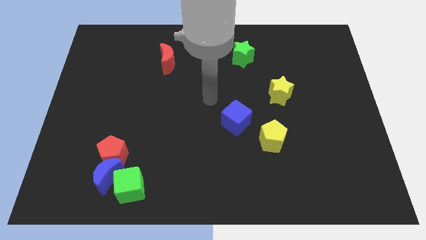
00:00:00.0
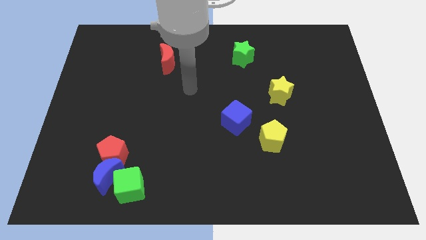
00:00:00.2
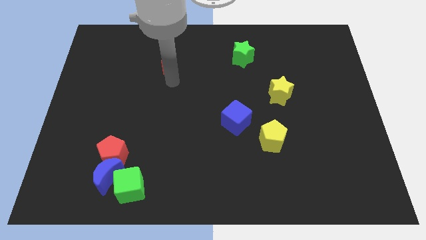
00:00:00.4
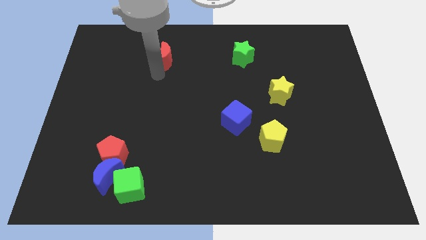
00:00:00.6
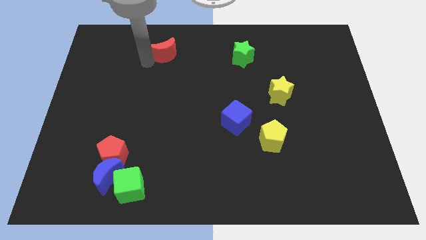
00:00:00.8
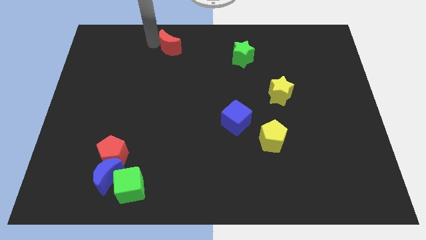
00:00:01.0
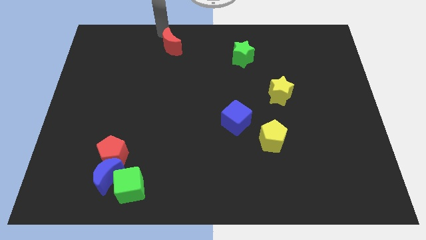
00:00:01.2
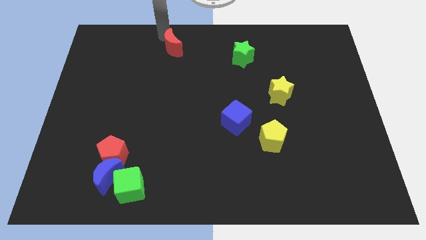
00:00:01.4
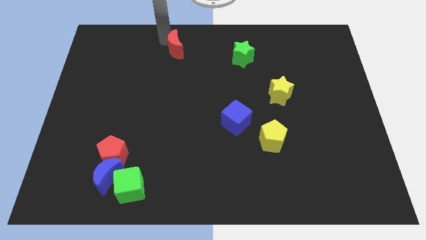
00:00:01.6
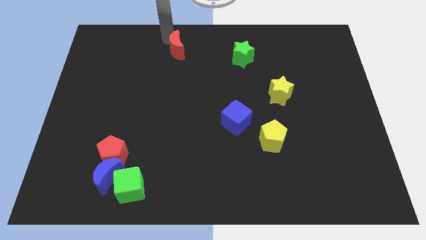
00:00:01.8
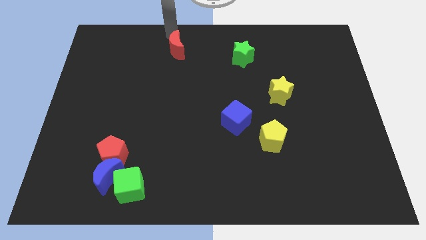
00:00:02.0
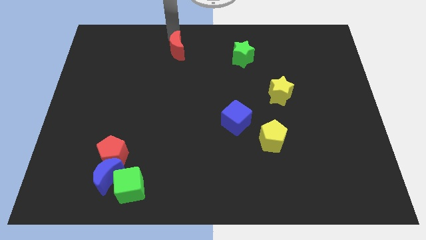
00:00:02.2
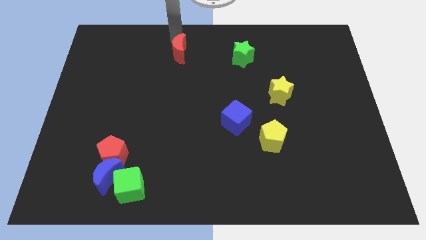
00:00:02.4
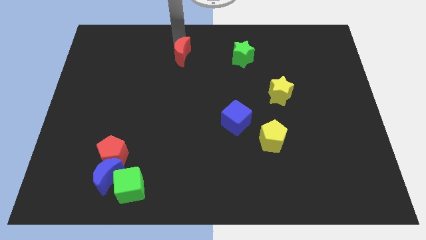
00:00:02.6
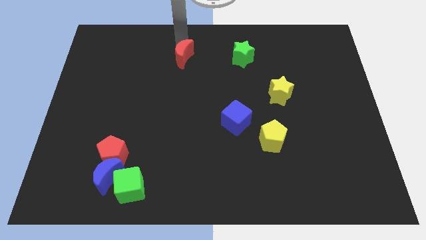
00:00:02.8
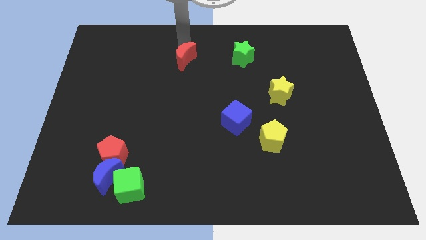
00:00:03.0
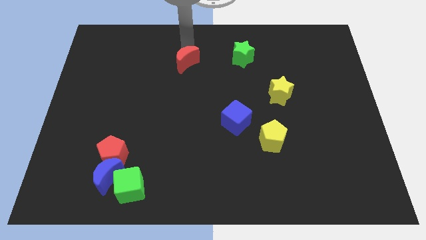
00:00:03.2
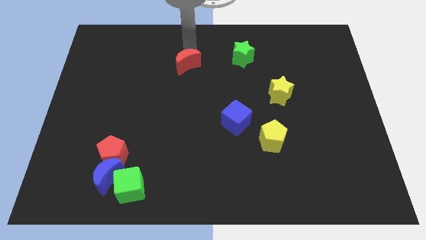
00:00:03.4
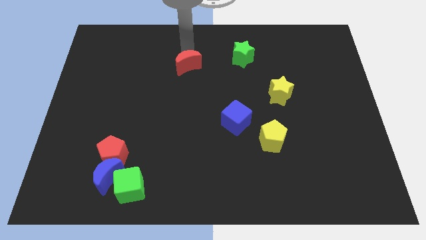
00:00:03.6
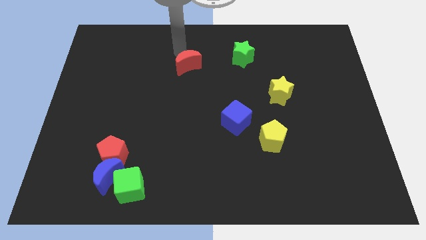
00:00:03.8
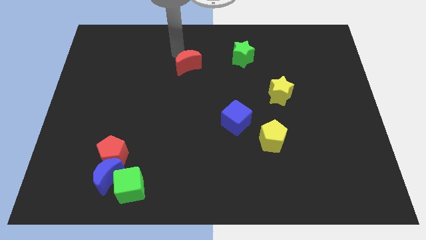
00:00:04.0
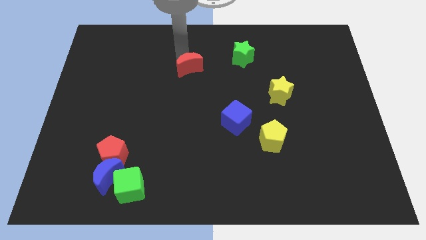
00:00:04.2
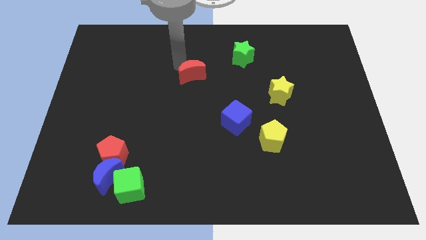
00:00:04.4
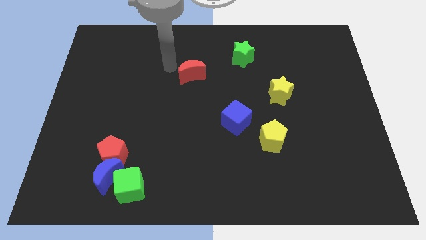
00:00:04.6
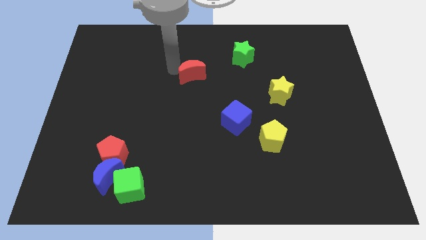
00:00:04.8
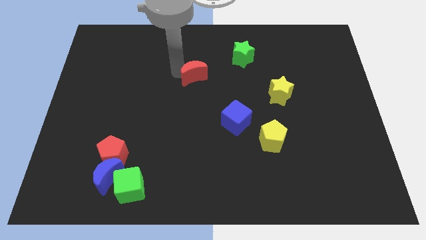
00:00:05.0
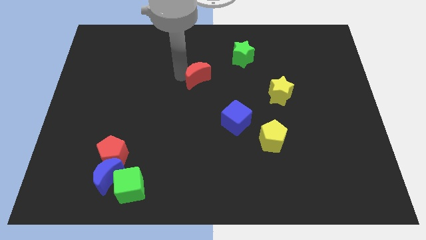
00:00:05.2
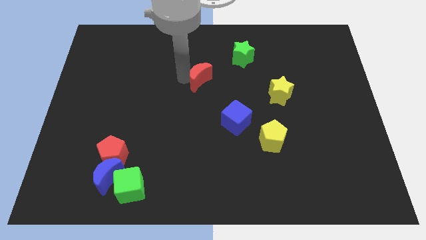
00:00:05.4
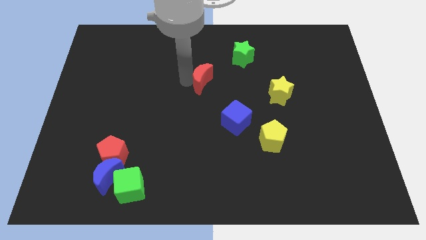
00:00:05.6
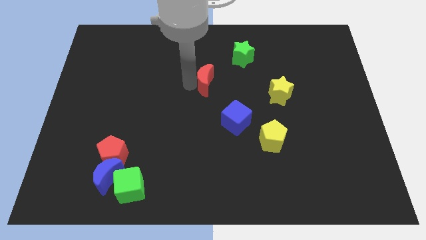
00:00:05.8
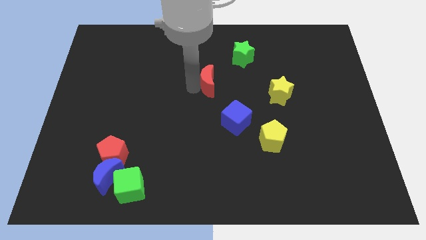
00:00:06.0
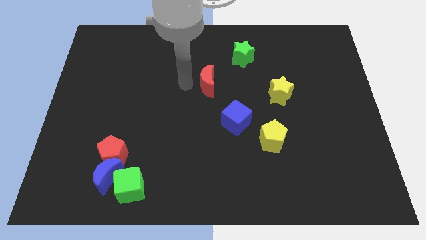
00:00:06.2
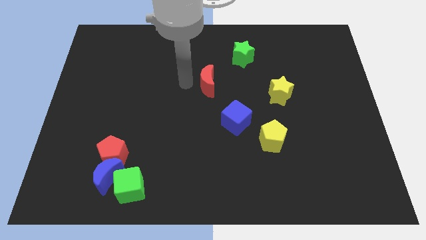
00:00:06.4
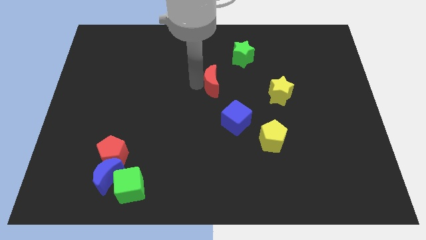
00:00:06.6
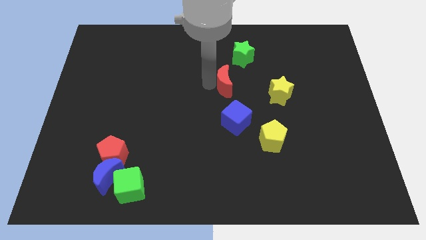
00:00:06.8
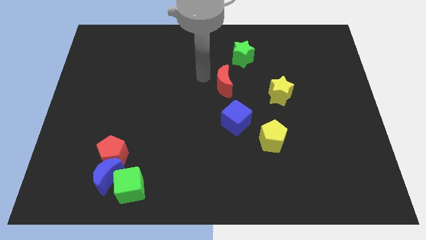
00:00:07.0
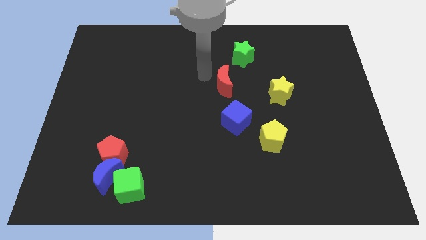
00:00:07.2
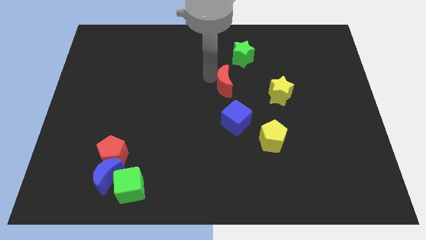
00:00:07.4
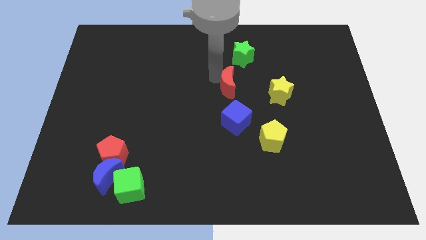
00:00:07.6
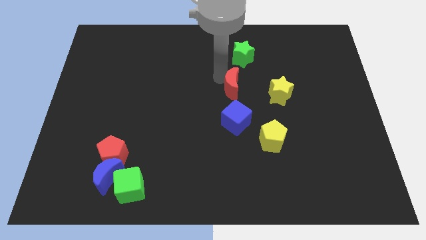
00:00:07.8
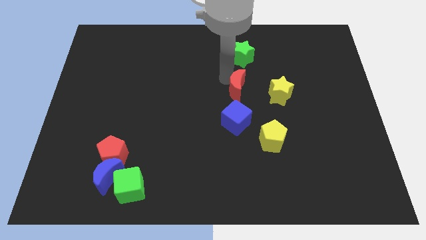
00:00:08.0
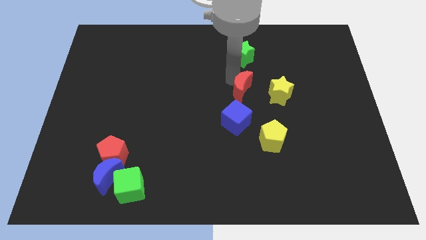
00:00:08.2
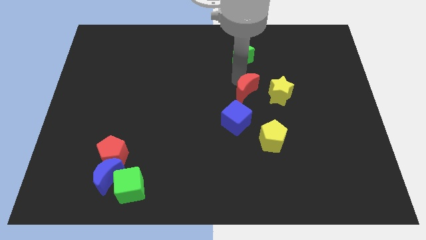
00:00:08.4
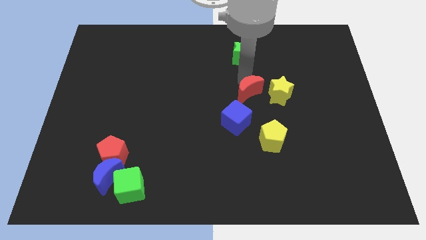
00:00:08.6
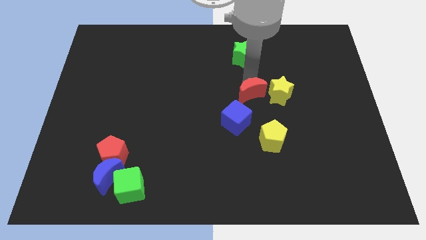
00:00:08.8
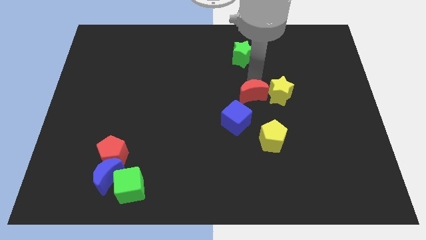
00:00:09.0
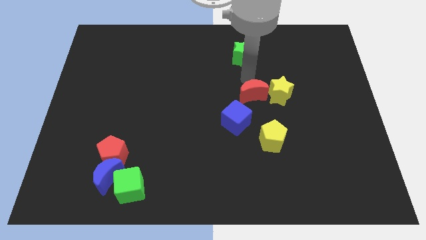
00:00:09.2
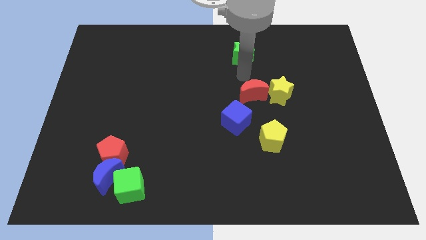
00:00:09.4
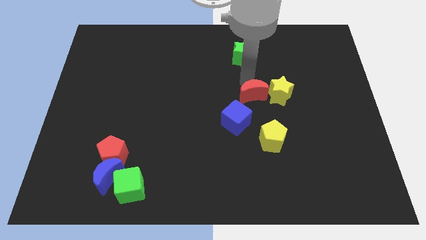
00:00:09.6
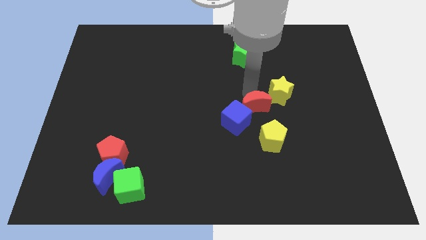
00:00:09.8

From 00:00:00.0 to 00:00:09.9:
slide the red moon to the right of the blue cube

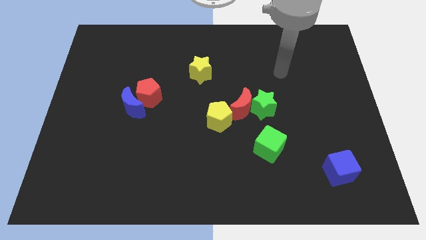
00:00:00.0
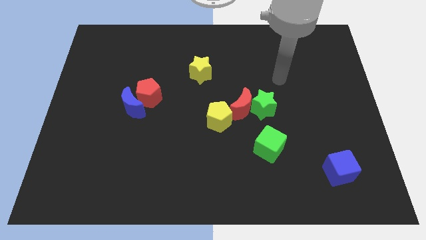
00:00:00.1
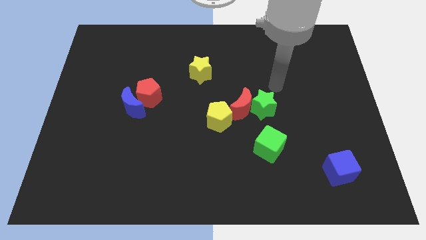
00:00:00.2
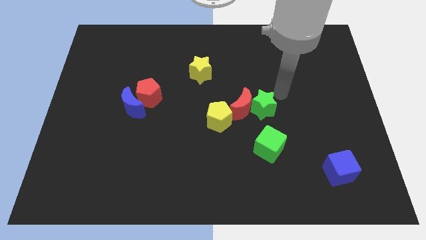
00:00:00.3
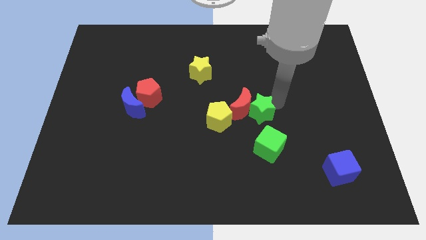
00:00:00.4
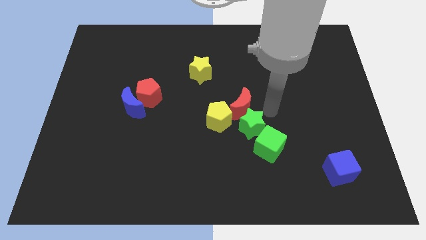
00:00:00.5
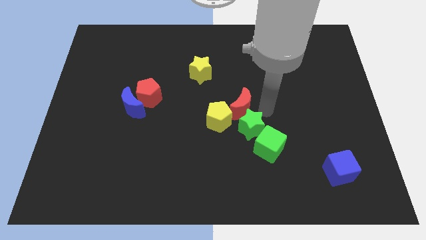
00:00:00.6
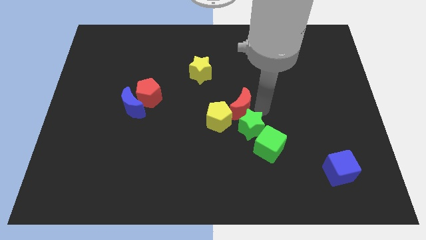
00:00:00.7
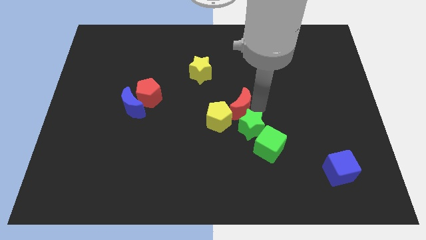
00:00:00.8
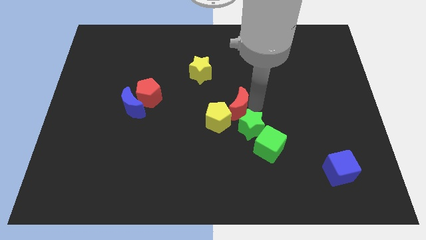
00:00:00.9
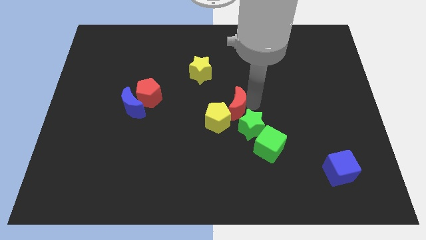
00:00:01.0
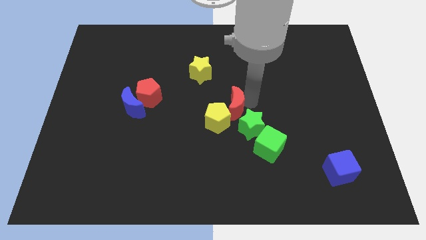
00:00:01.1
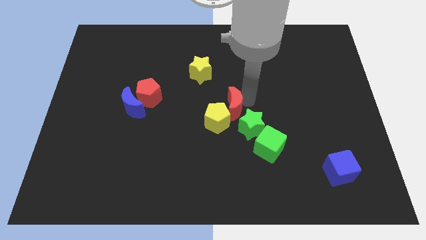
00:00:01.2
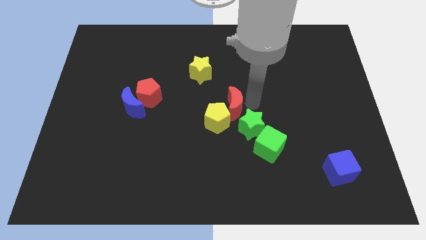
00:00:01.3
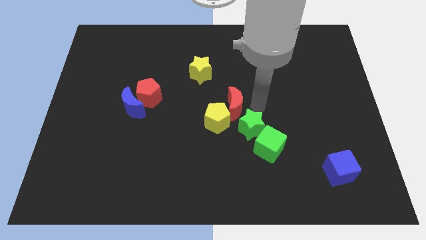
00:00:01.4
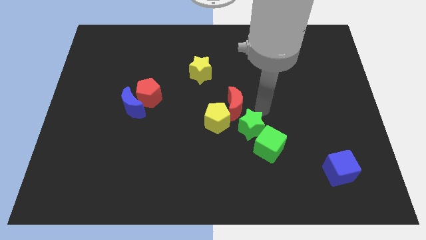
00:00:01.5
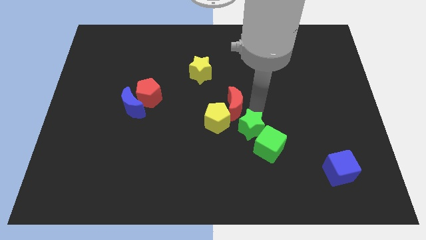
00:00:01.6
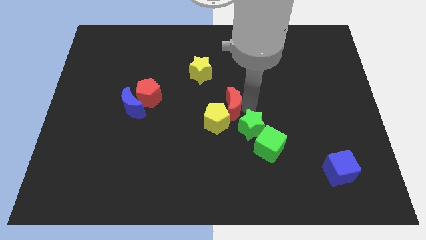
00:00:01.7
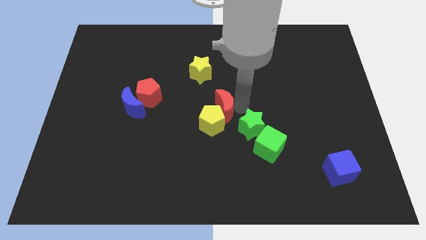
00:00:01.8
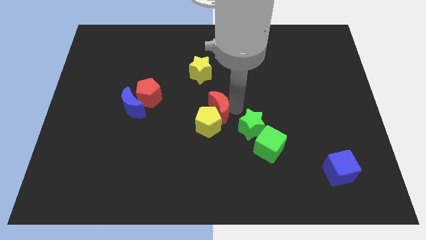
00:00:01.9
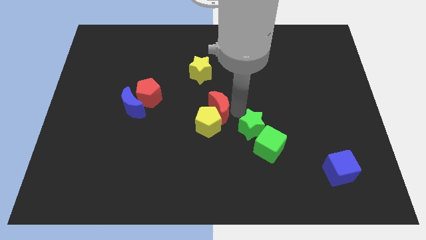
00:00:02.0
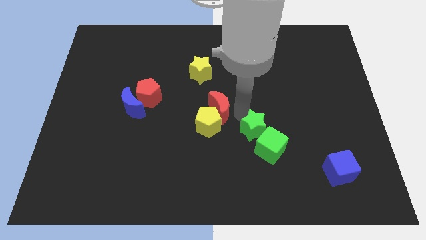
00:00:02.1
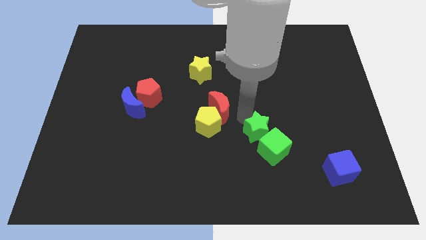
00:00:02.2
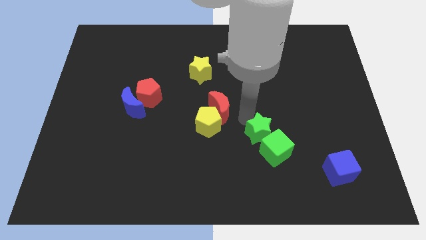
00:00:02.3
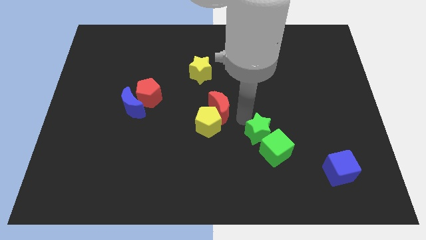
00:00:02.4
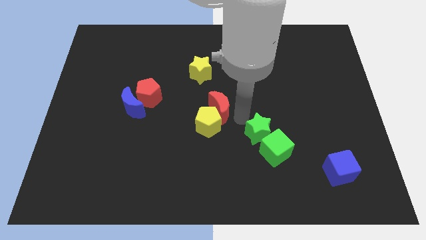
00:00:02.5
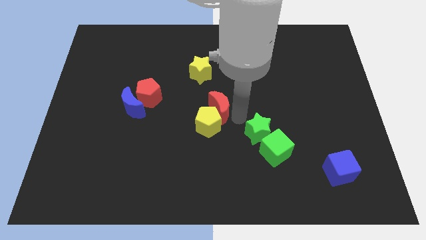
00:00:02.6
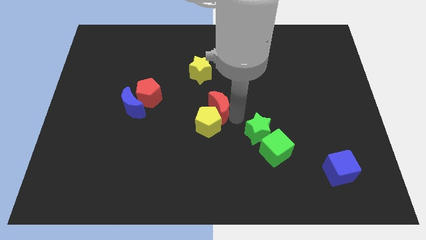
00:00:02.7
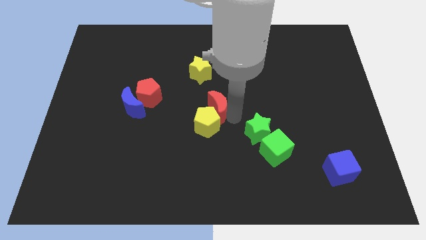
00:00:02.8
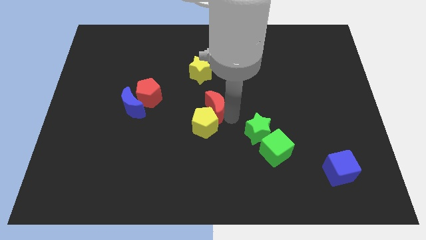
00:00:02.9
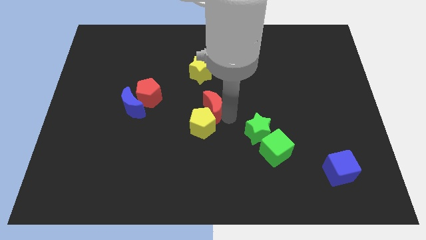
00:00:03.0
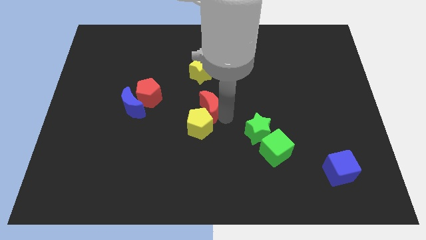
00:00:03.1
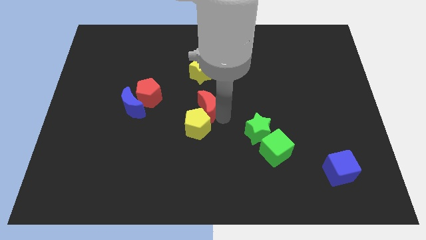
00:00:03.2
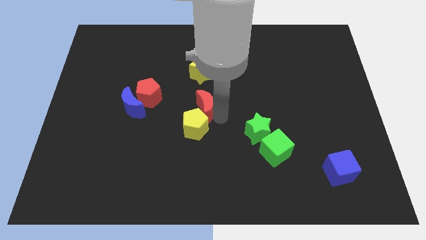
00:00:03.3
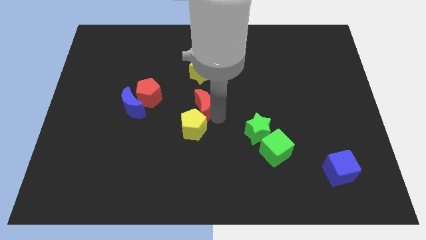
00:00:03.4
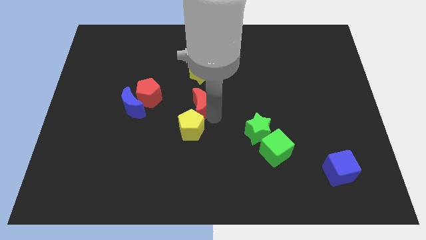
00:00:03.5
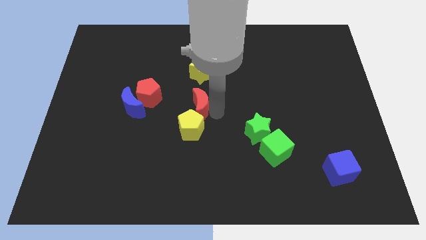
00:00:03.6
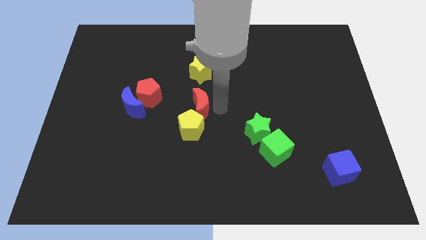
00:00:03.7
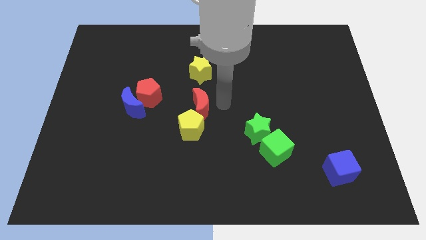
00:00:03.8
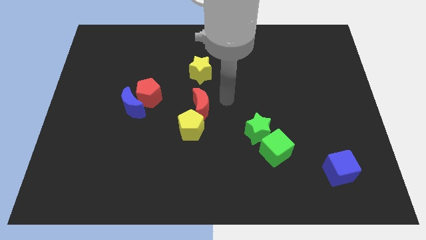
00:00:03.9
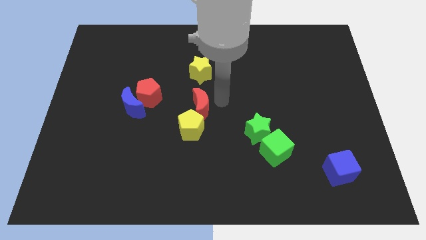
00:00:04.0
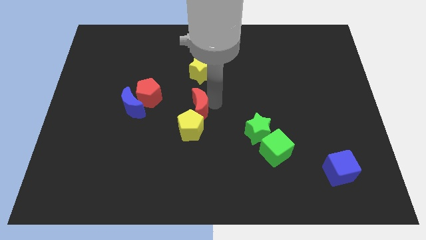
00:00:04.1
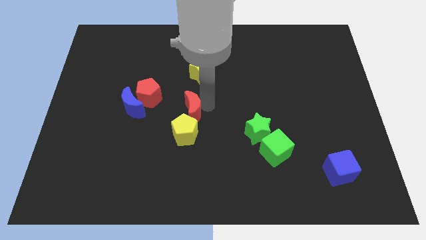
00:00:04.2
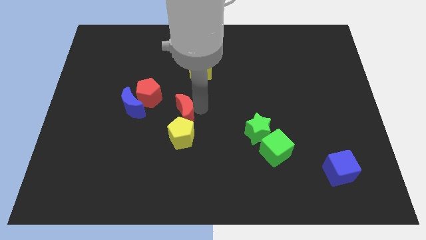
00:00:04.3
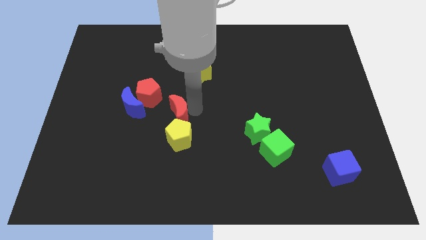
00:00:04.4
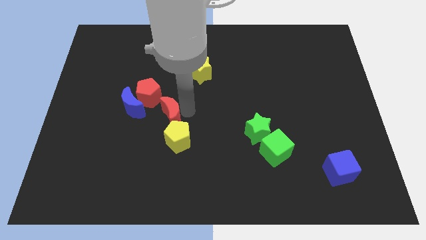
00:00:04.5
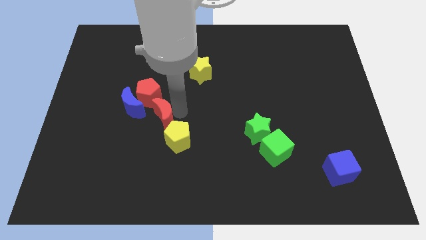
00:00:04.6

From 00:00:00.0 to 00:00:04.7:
put the red moon to the bottom right side of the blue moon
